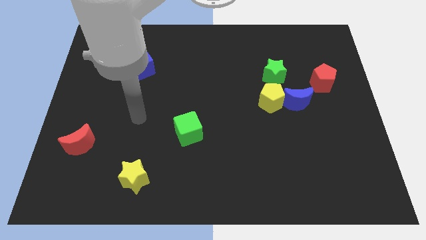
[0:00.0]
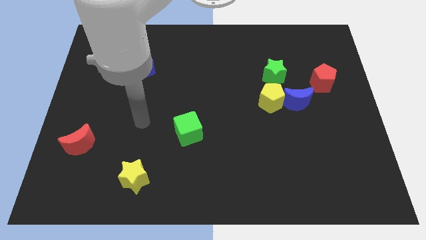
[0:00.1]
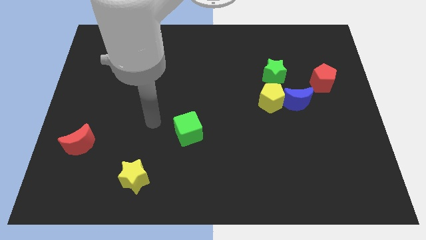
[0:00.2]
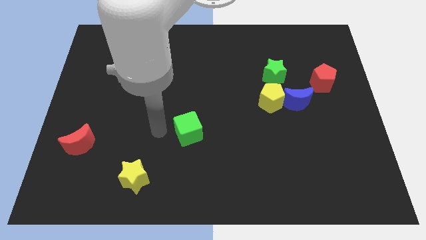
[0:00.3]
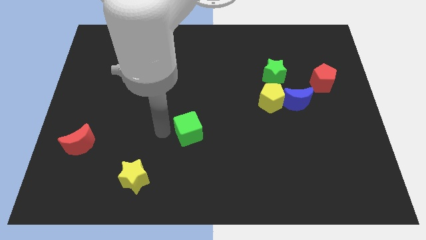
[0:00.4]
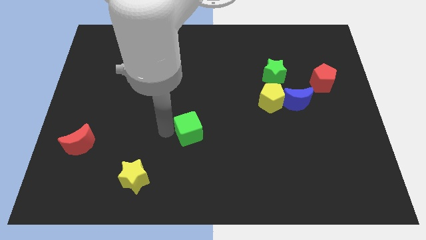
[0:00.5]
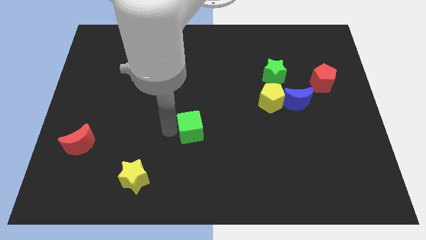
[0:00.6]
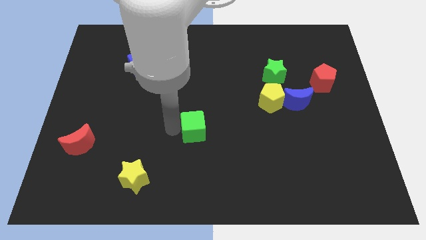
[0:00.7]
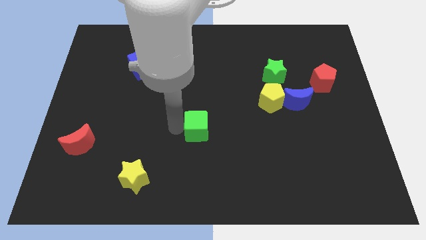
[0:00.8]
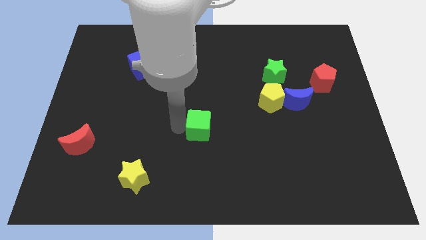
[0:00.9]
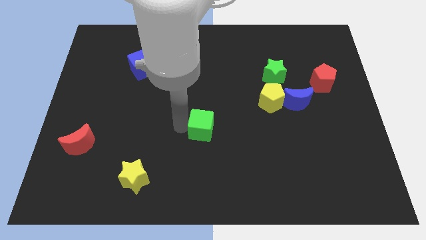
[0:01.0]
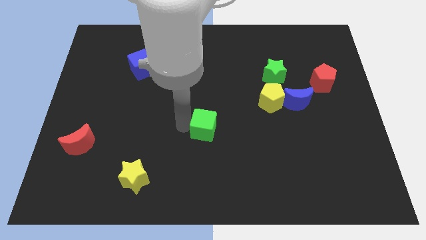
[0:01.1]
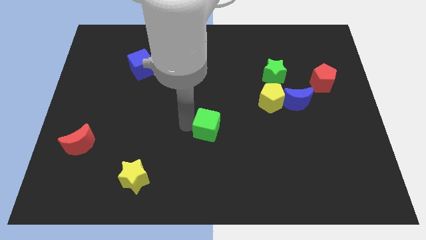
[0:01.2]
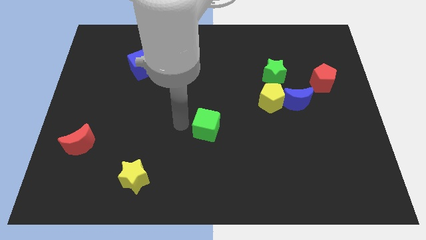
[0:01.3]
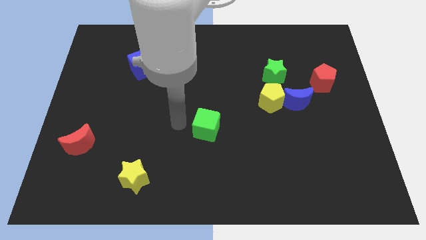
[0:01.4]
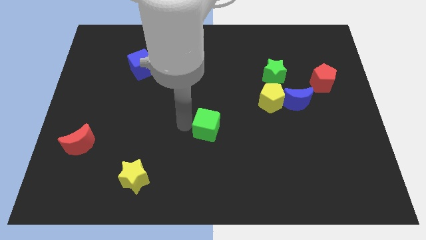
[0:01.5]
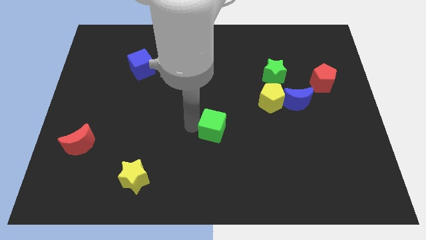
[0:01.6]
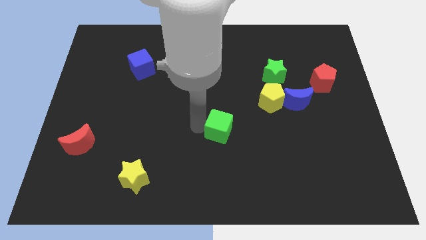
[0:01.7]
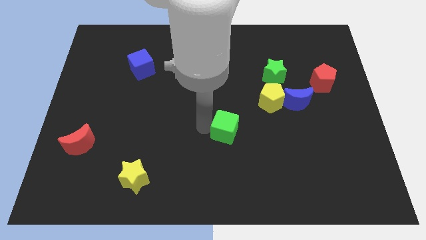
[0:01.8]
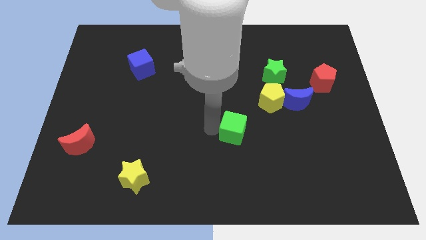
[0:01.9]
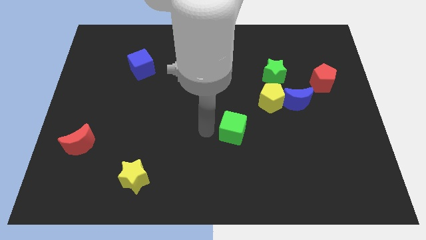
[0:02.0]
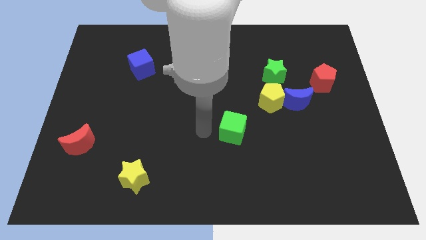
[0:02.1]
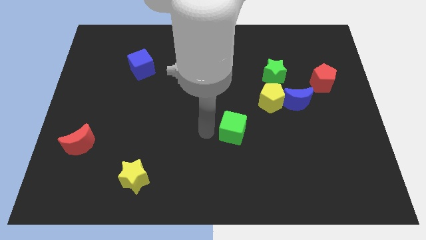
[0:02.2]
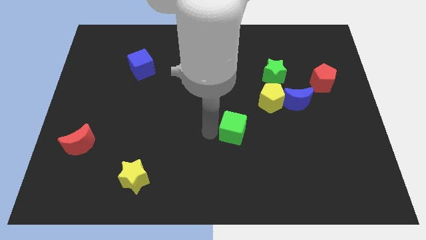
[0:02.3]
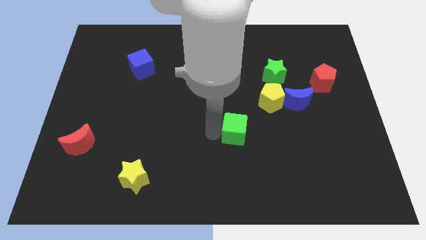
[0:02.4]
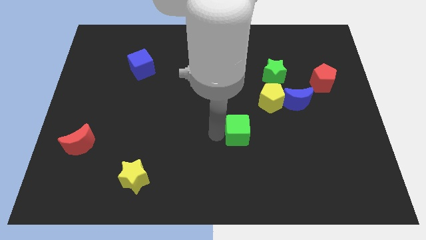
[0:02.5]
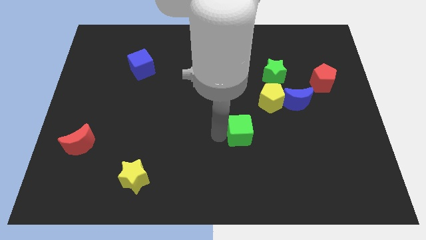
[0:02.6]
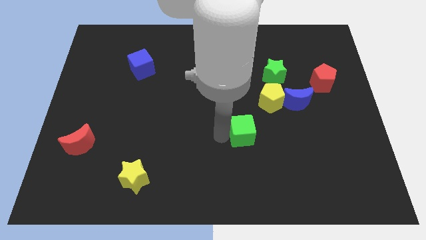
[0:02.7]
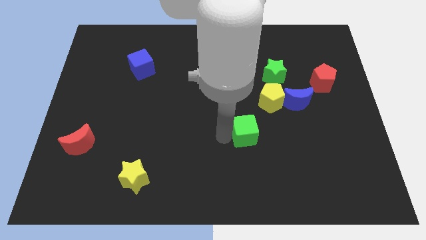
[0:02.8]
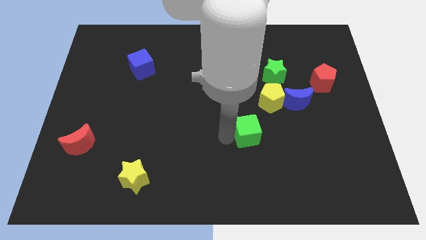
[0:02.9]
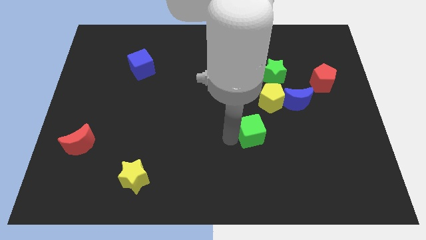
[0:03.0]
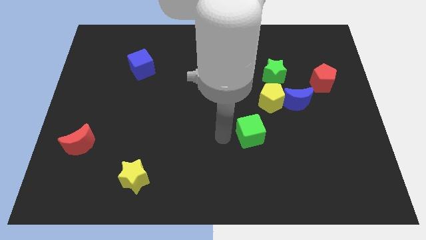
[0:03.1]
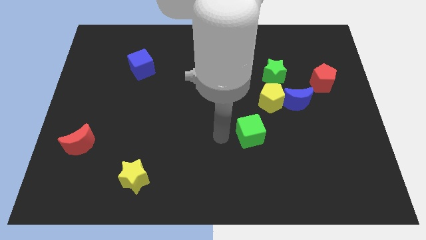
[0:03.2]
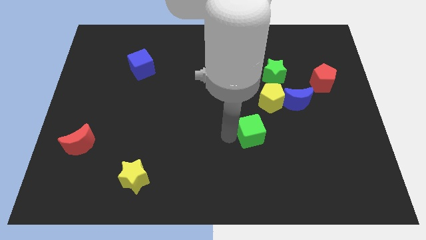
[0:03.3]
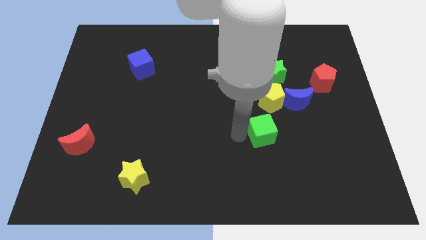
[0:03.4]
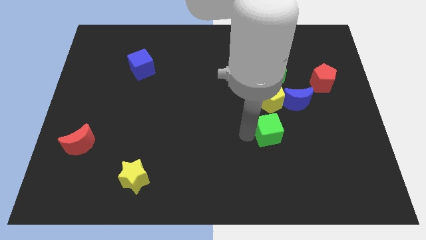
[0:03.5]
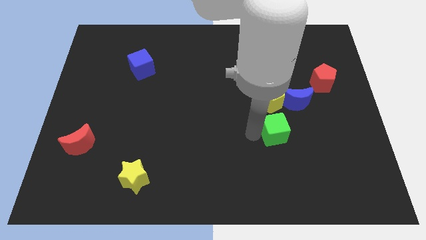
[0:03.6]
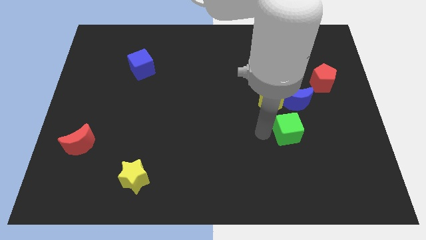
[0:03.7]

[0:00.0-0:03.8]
slide the green cube right

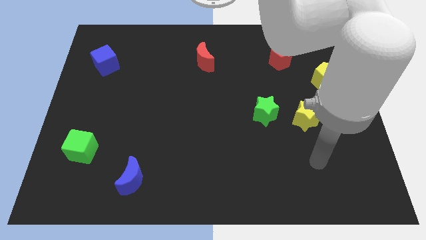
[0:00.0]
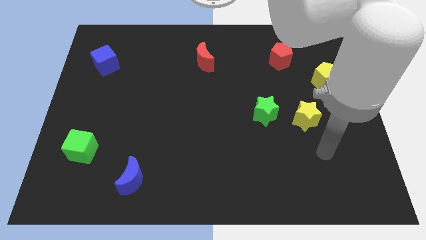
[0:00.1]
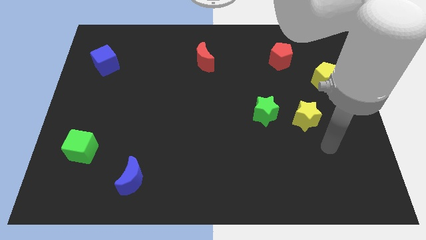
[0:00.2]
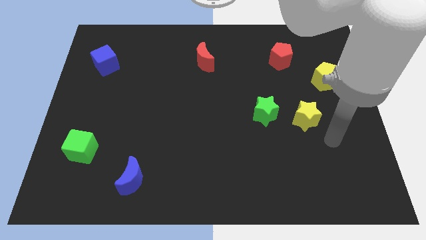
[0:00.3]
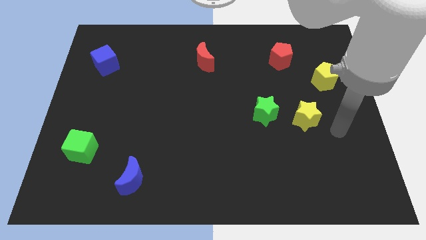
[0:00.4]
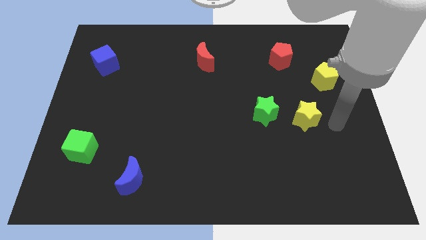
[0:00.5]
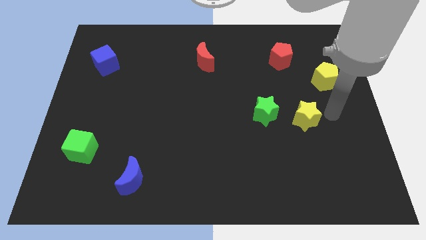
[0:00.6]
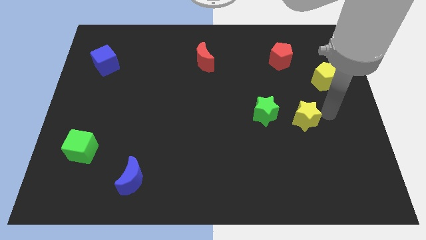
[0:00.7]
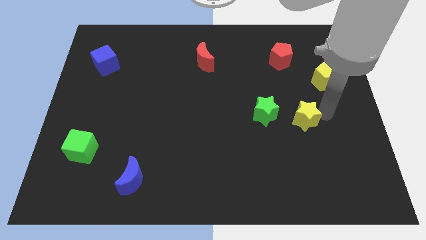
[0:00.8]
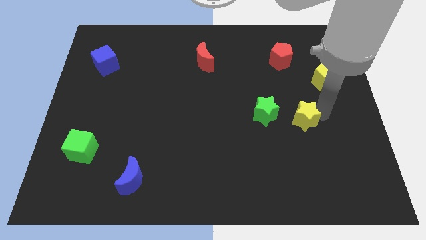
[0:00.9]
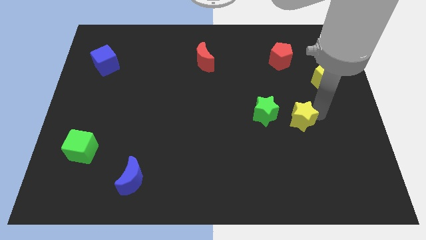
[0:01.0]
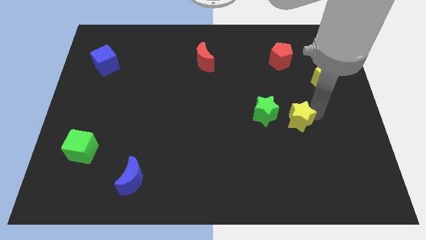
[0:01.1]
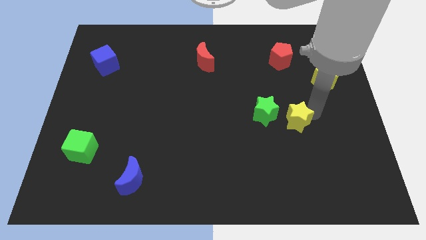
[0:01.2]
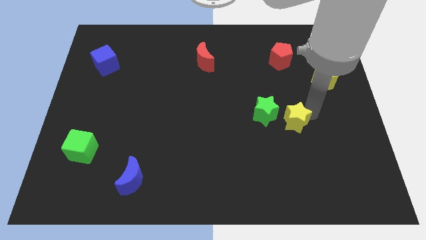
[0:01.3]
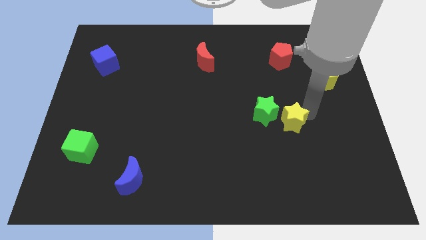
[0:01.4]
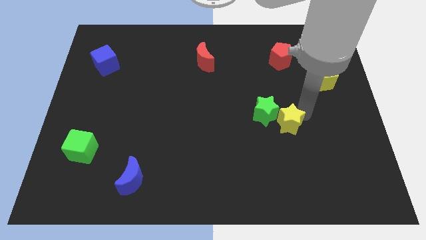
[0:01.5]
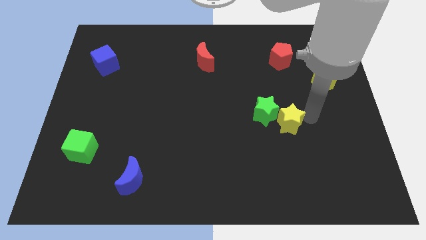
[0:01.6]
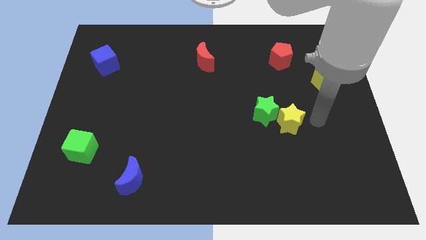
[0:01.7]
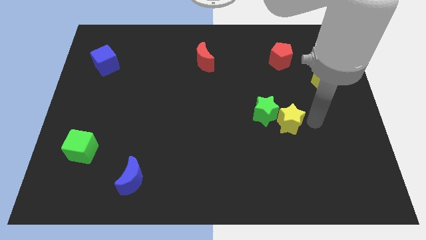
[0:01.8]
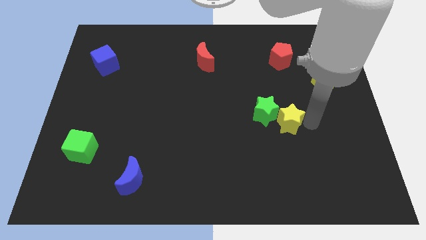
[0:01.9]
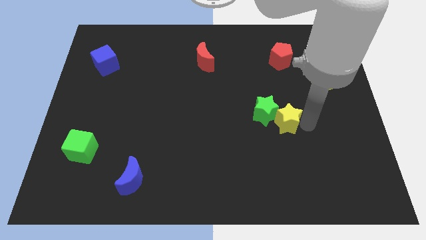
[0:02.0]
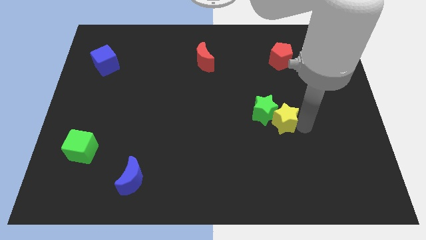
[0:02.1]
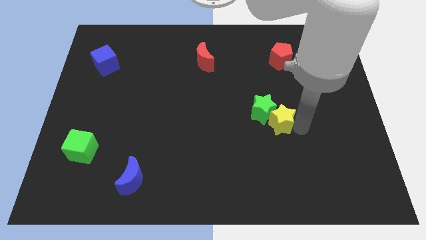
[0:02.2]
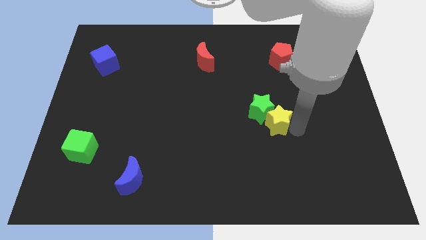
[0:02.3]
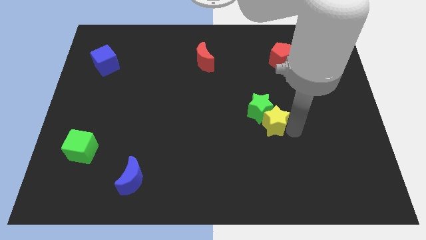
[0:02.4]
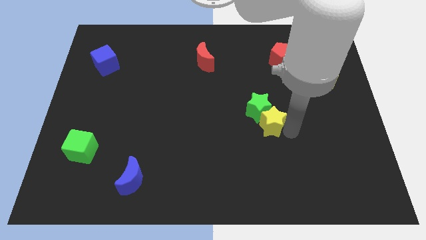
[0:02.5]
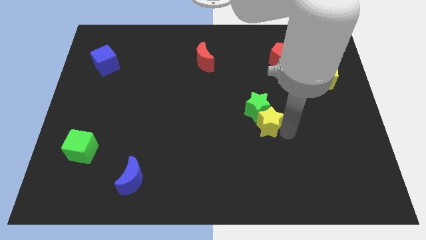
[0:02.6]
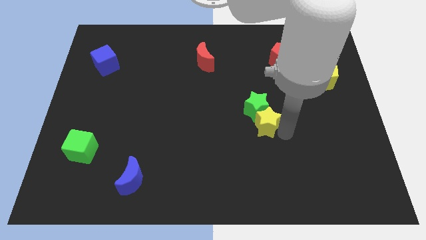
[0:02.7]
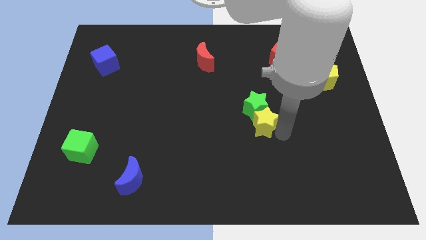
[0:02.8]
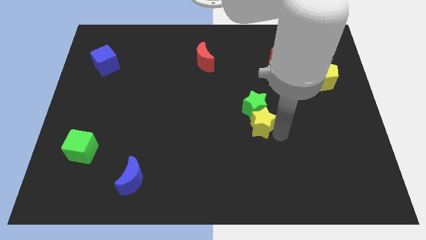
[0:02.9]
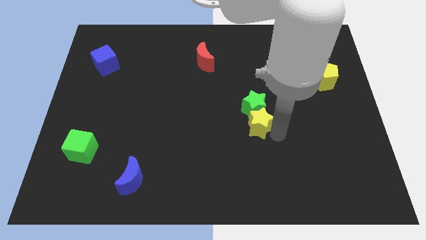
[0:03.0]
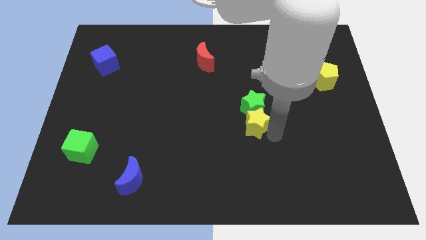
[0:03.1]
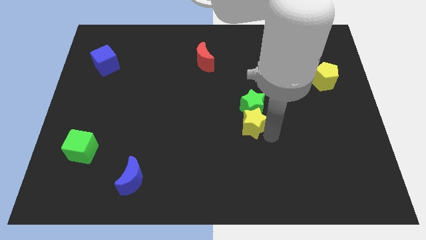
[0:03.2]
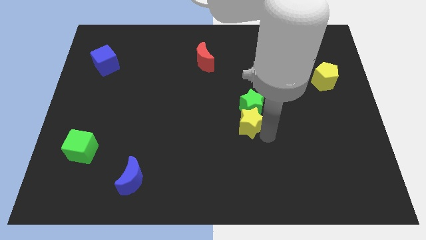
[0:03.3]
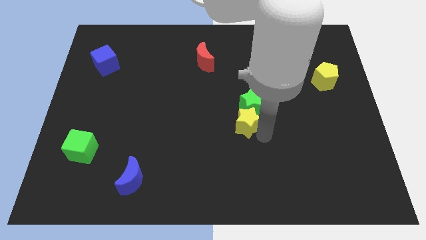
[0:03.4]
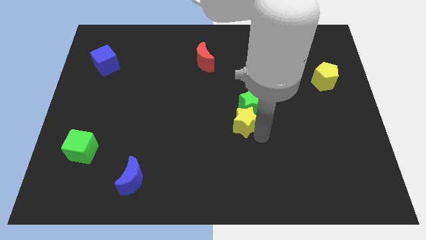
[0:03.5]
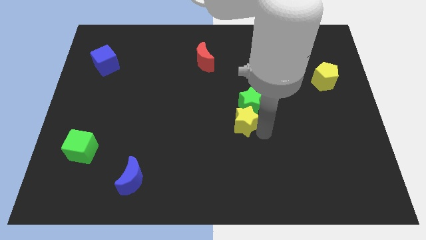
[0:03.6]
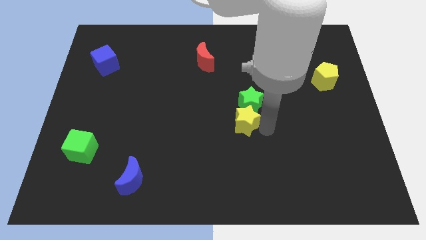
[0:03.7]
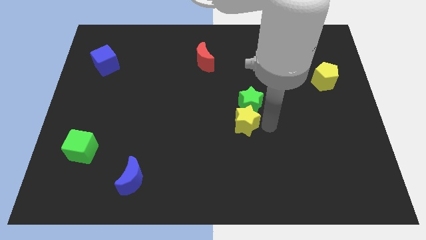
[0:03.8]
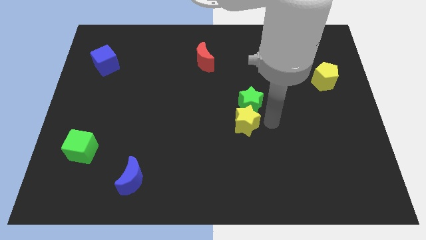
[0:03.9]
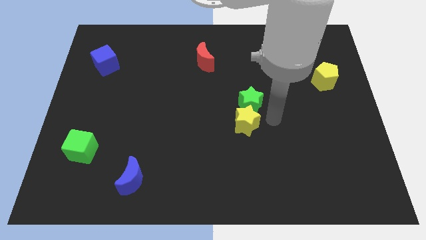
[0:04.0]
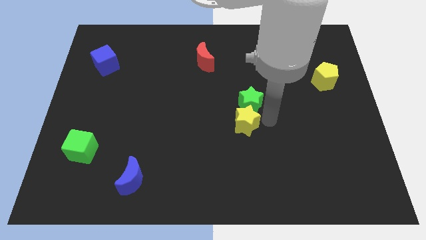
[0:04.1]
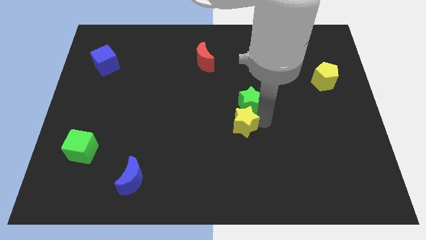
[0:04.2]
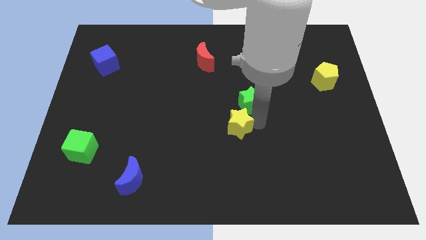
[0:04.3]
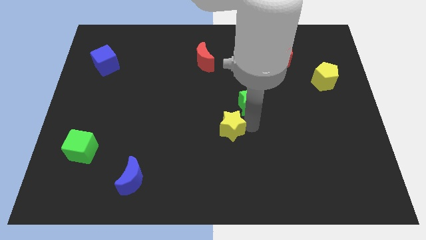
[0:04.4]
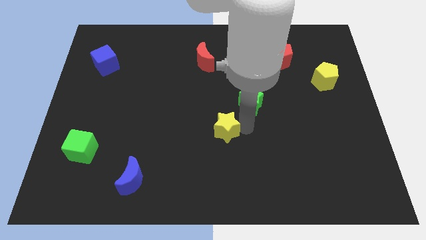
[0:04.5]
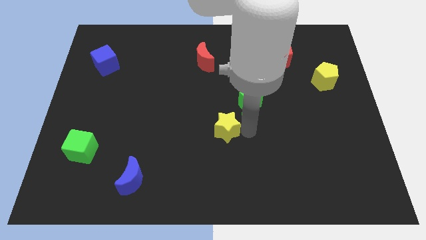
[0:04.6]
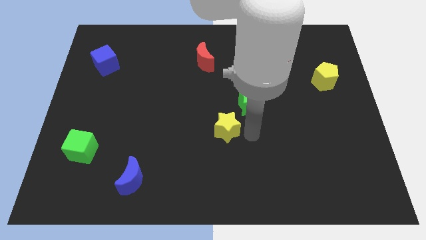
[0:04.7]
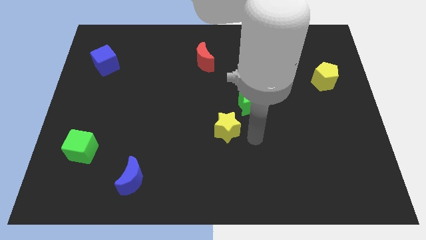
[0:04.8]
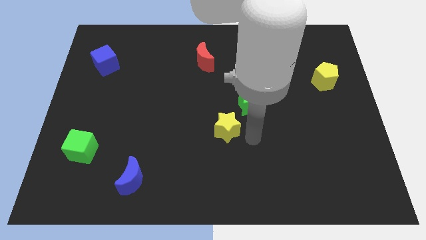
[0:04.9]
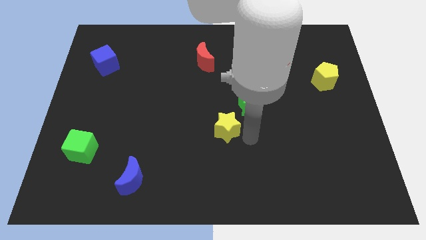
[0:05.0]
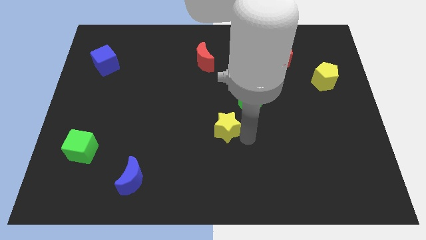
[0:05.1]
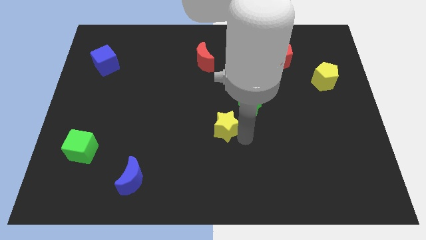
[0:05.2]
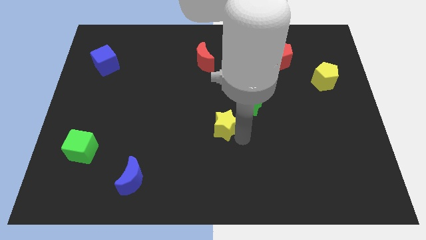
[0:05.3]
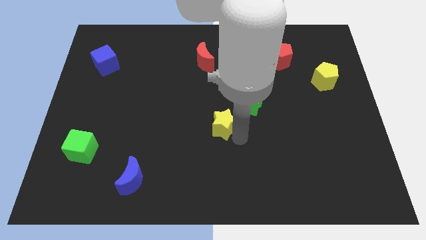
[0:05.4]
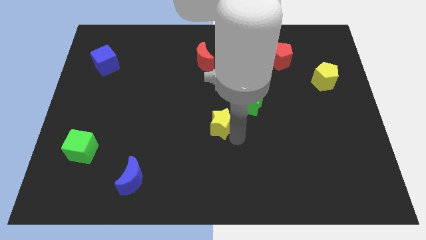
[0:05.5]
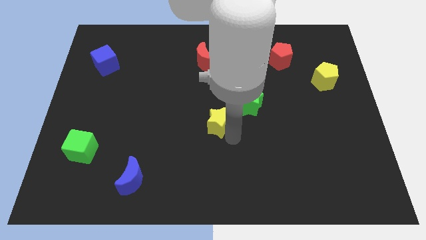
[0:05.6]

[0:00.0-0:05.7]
move the yellow star left
